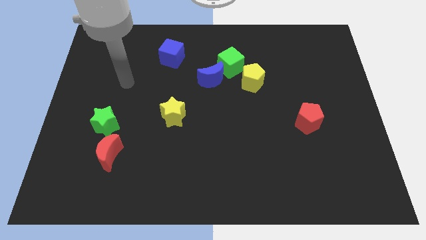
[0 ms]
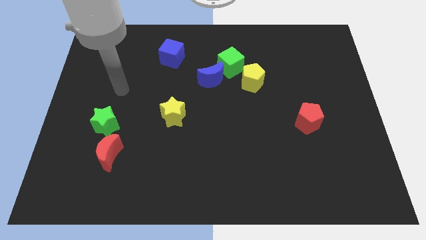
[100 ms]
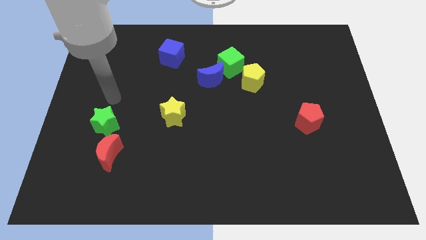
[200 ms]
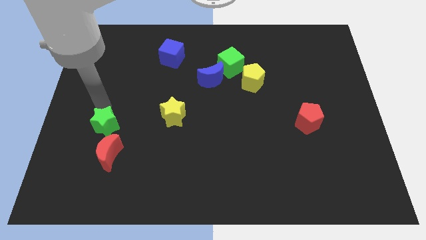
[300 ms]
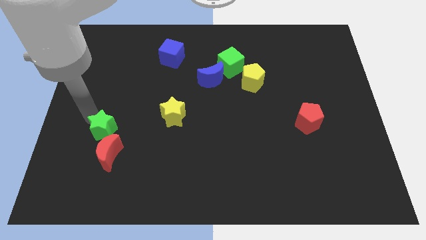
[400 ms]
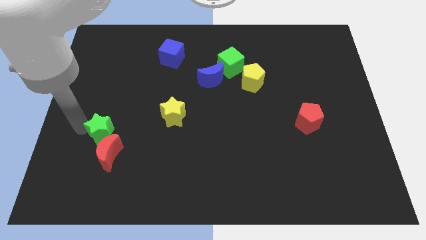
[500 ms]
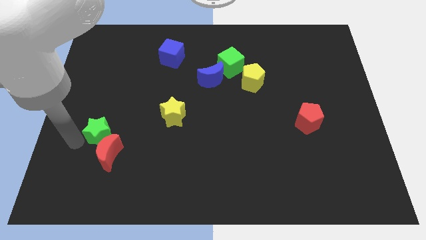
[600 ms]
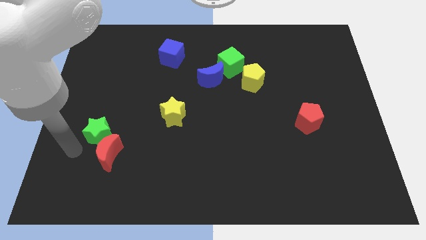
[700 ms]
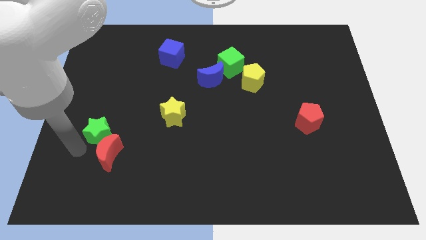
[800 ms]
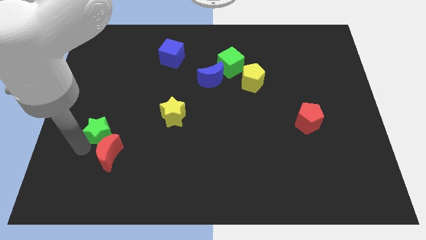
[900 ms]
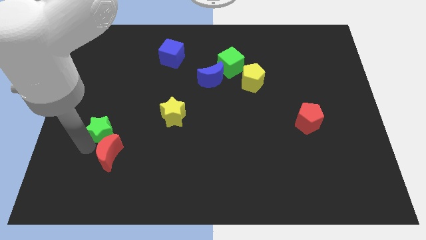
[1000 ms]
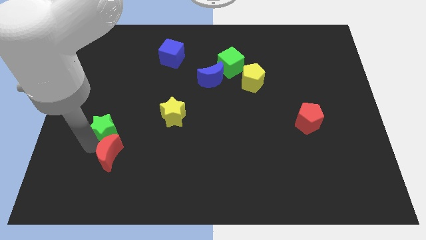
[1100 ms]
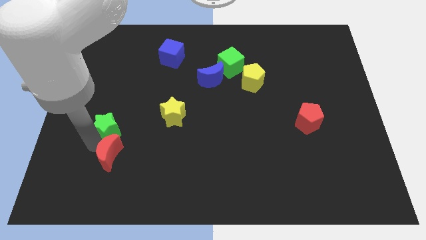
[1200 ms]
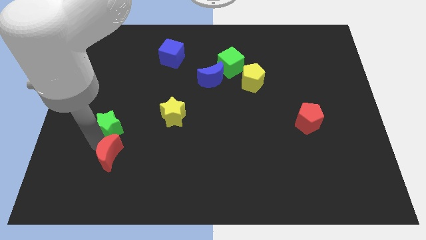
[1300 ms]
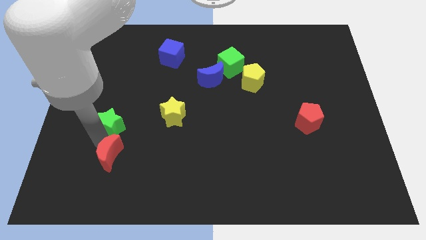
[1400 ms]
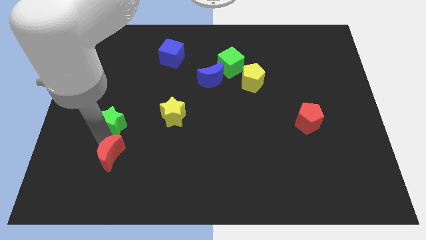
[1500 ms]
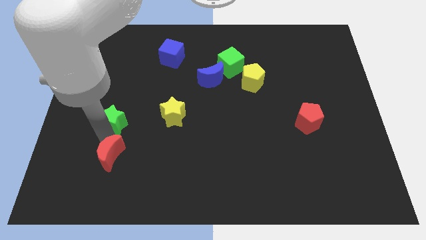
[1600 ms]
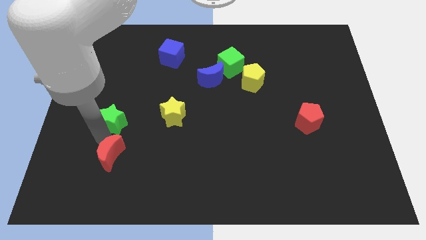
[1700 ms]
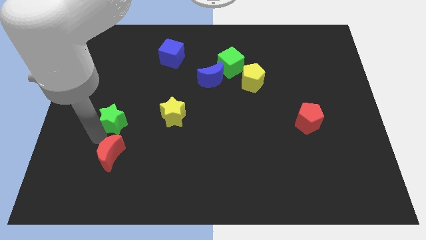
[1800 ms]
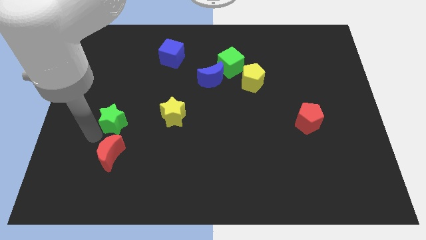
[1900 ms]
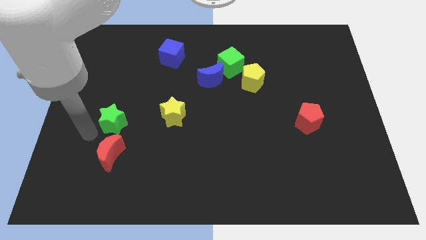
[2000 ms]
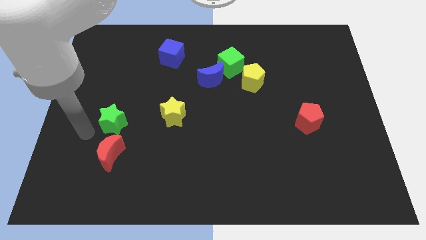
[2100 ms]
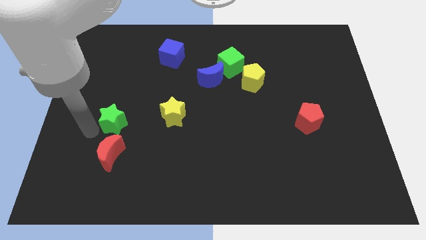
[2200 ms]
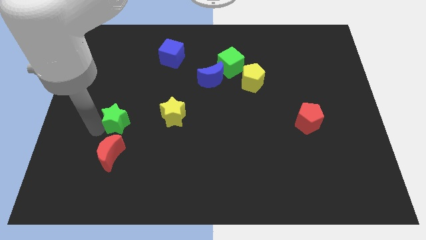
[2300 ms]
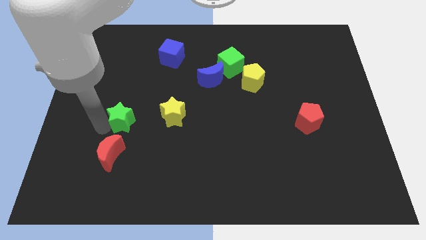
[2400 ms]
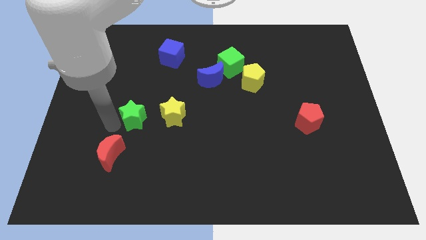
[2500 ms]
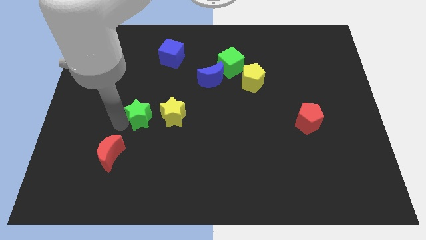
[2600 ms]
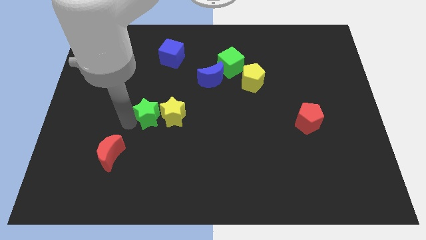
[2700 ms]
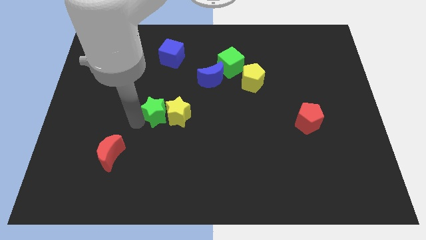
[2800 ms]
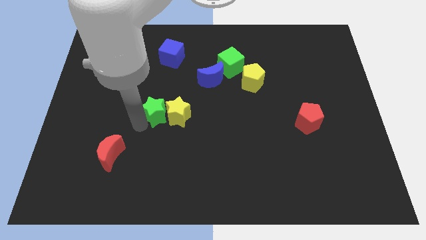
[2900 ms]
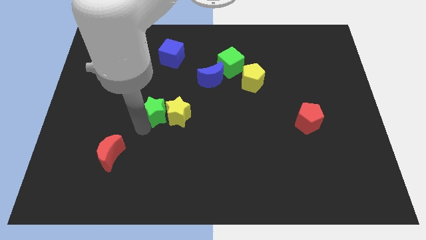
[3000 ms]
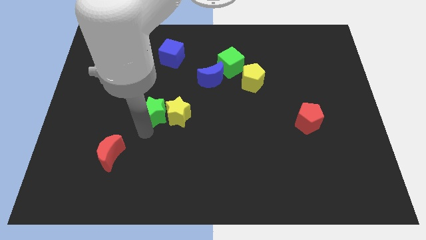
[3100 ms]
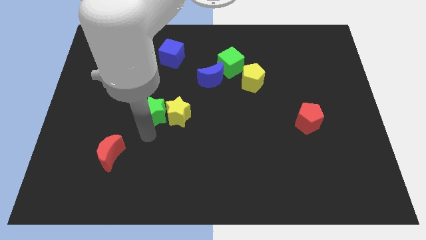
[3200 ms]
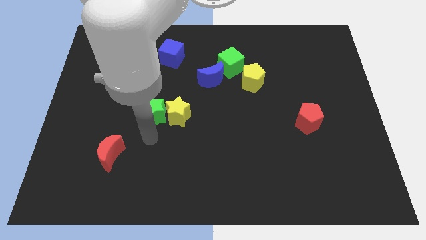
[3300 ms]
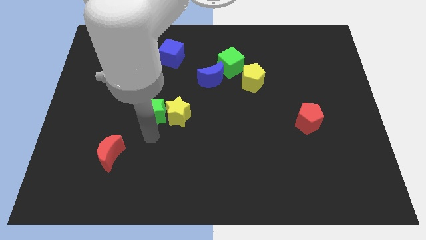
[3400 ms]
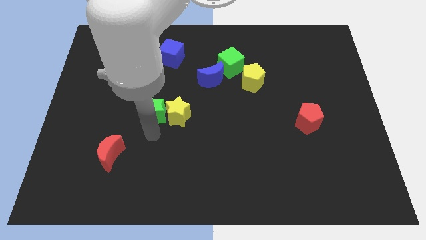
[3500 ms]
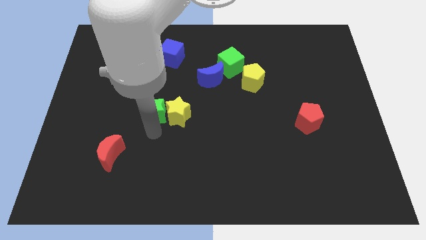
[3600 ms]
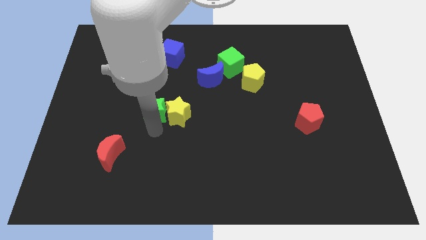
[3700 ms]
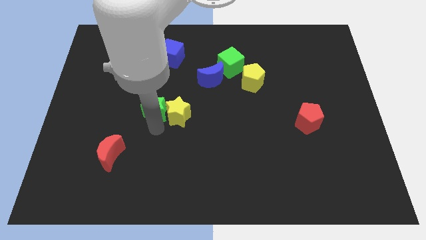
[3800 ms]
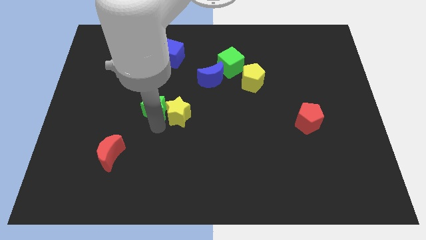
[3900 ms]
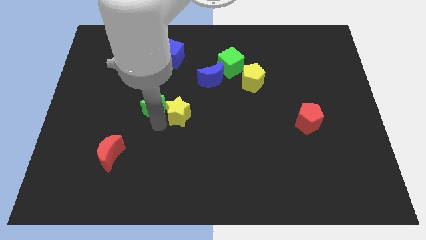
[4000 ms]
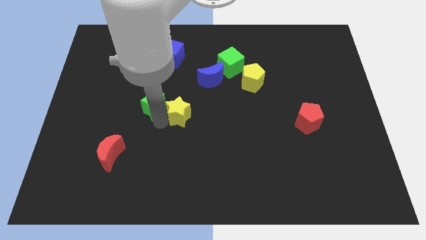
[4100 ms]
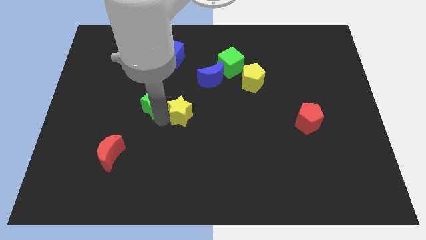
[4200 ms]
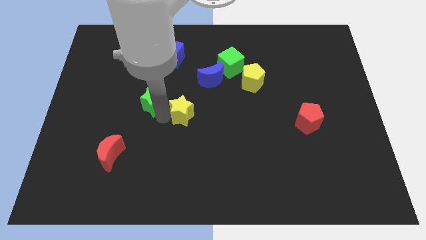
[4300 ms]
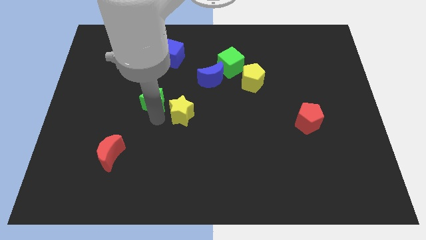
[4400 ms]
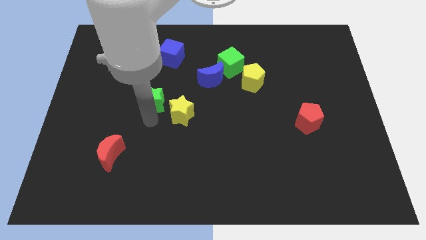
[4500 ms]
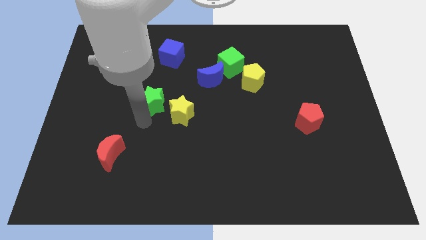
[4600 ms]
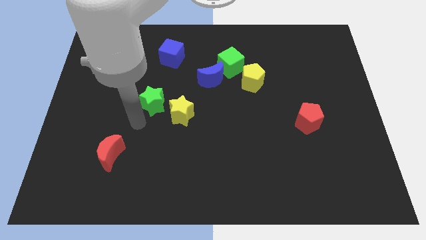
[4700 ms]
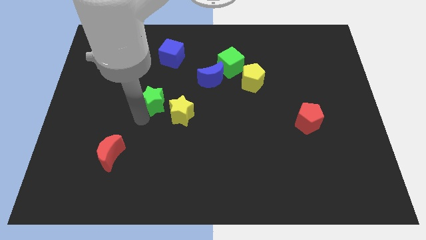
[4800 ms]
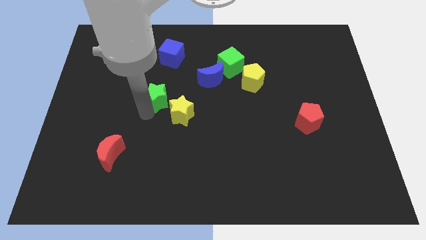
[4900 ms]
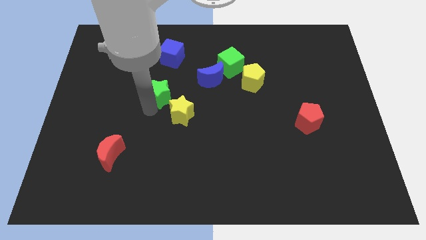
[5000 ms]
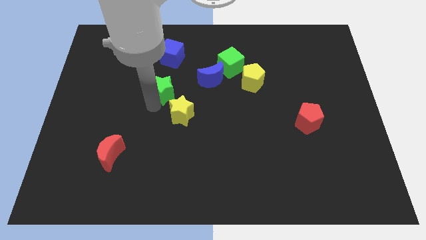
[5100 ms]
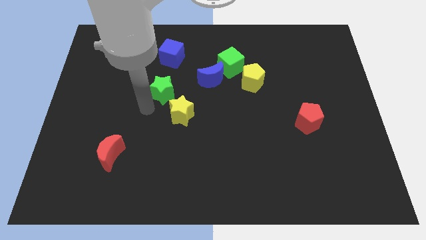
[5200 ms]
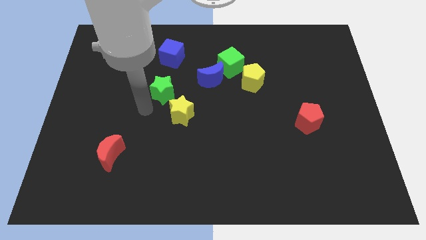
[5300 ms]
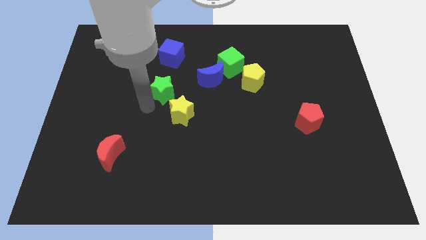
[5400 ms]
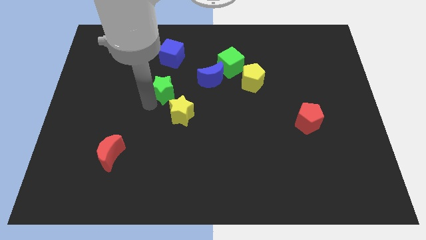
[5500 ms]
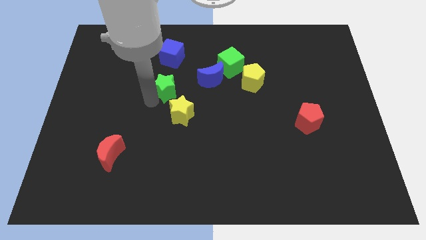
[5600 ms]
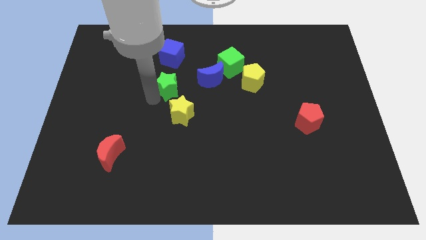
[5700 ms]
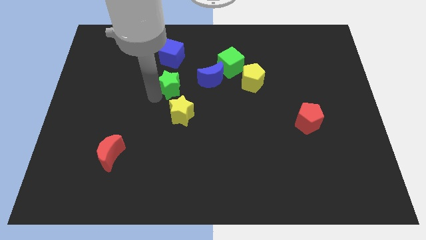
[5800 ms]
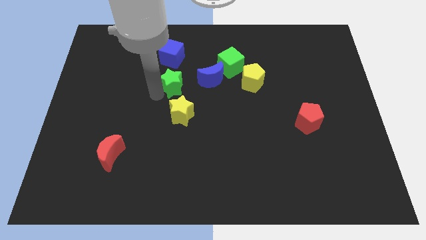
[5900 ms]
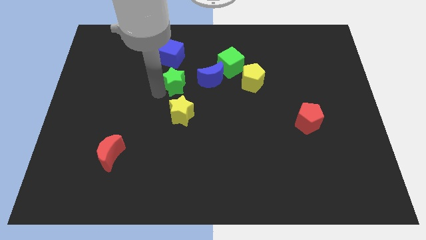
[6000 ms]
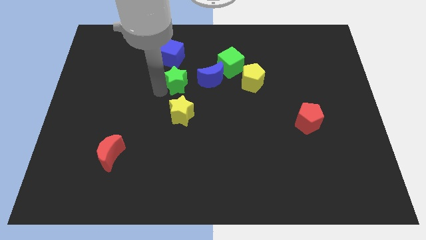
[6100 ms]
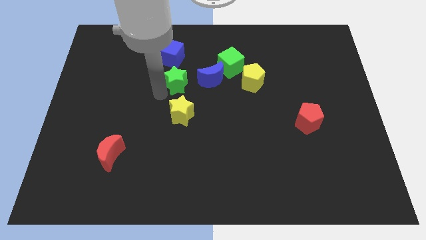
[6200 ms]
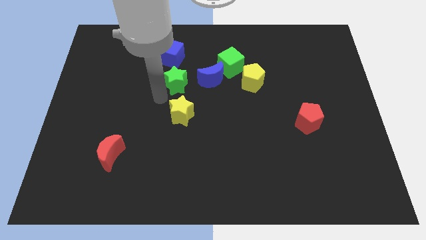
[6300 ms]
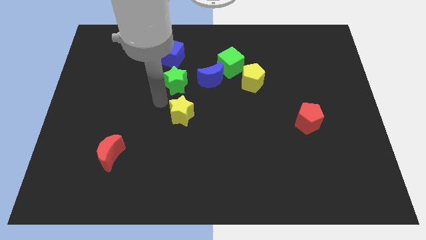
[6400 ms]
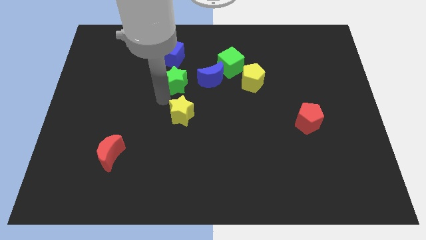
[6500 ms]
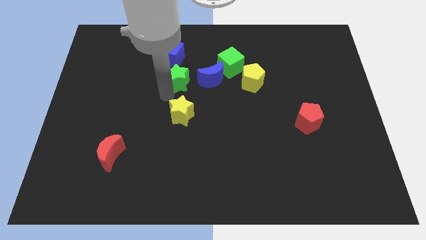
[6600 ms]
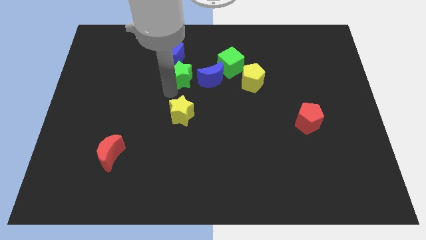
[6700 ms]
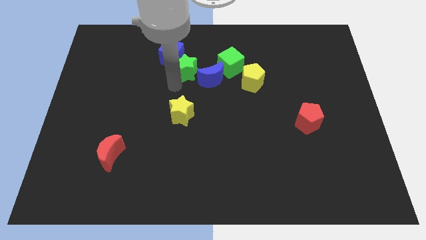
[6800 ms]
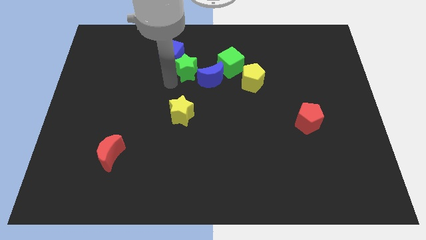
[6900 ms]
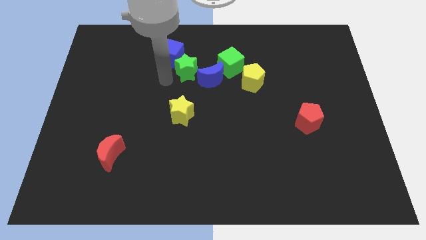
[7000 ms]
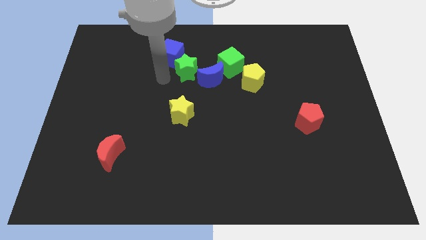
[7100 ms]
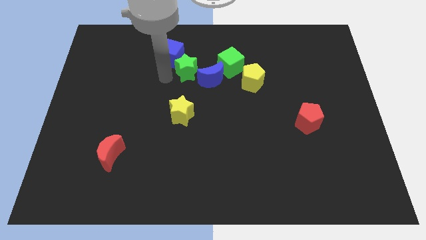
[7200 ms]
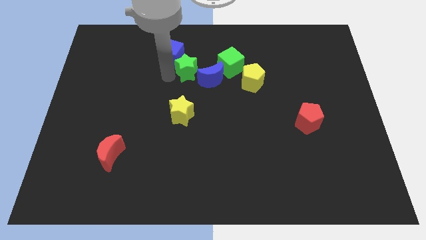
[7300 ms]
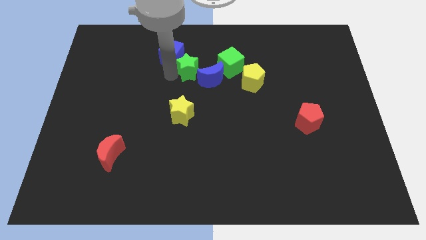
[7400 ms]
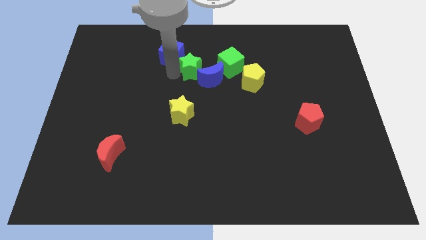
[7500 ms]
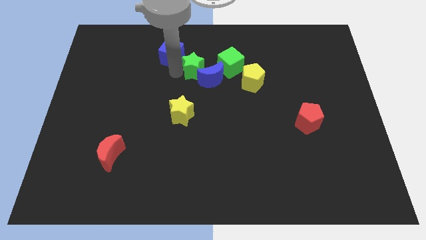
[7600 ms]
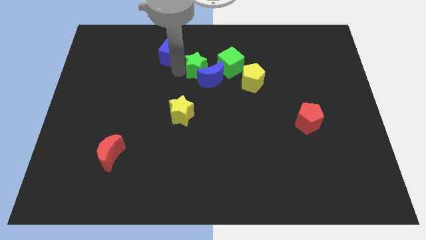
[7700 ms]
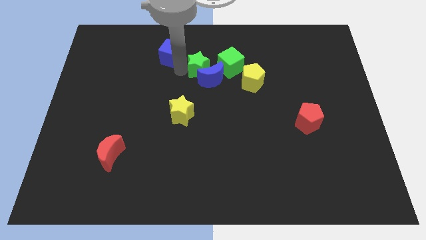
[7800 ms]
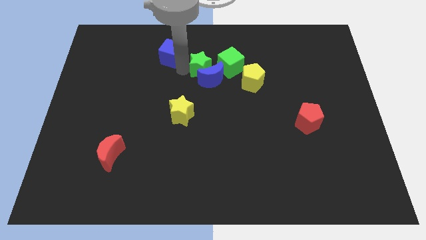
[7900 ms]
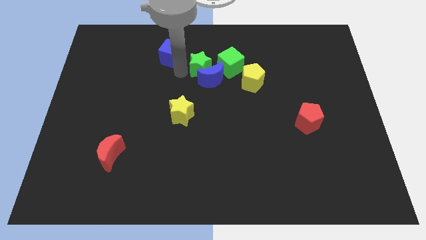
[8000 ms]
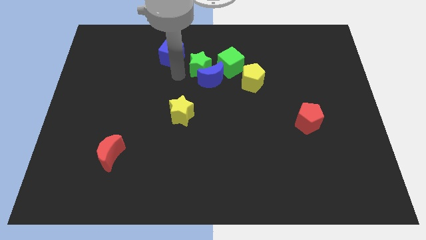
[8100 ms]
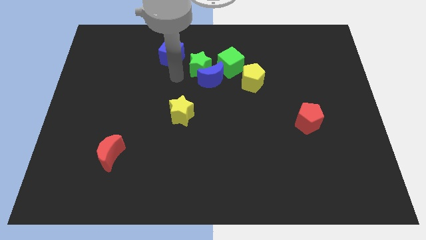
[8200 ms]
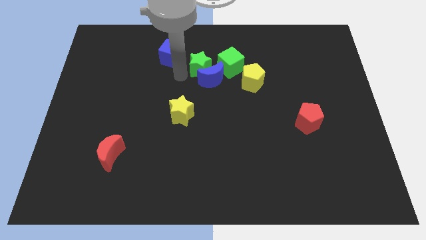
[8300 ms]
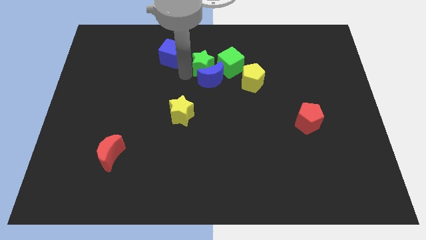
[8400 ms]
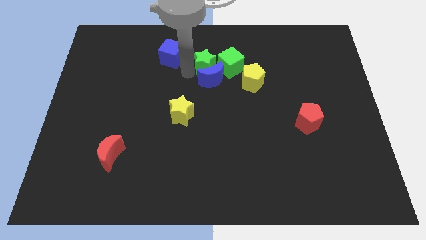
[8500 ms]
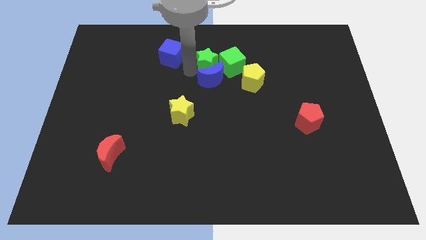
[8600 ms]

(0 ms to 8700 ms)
move the green star to the green cube
